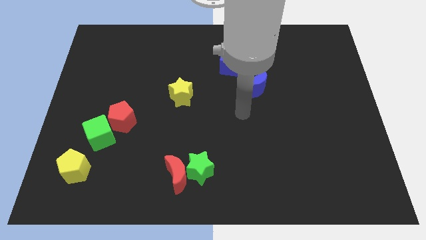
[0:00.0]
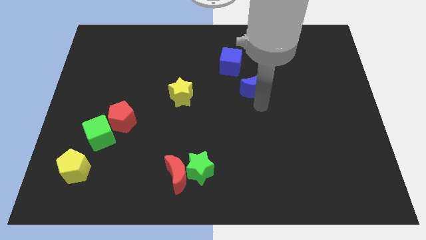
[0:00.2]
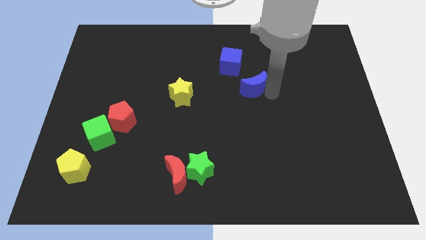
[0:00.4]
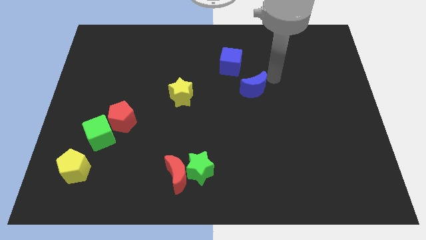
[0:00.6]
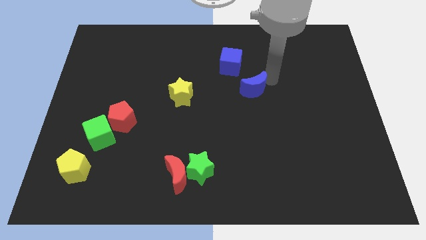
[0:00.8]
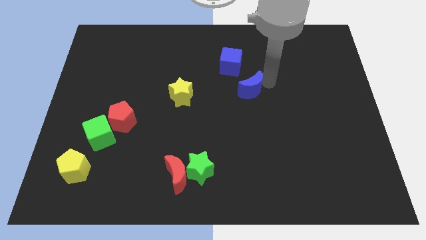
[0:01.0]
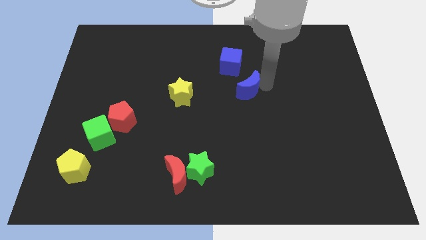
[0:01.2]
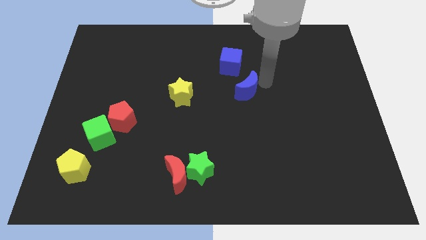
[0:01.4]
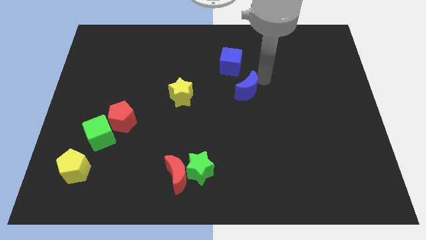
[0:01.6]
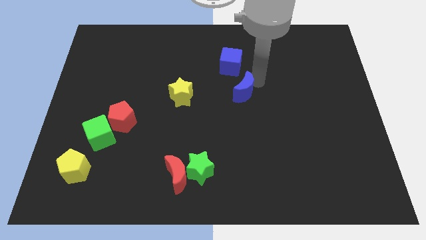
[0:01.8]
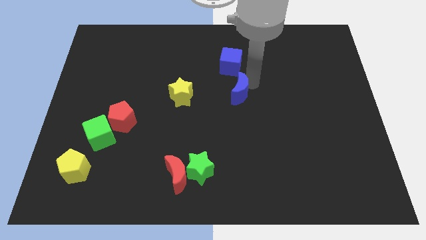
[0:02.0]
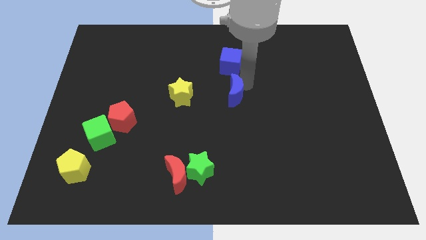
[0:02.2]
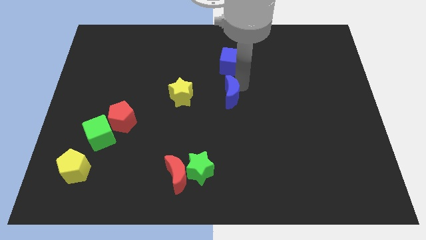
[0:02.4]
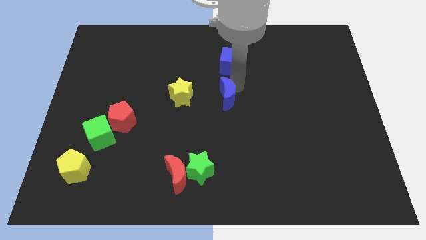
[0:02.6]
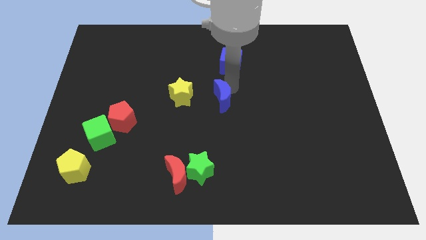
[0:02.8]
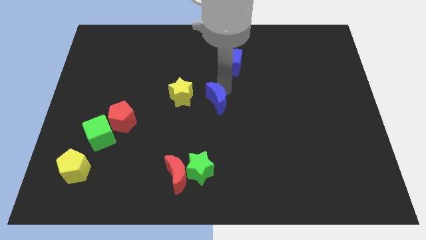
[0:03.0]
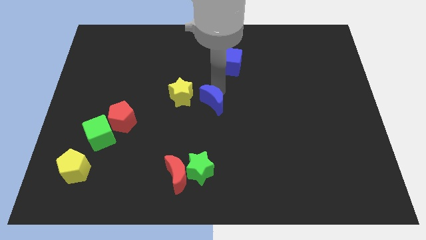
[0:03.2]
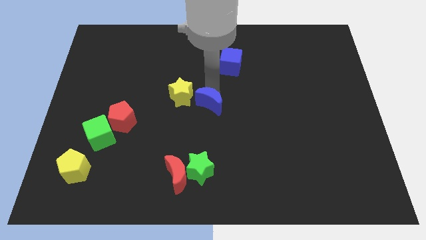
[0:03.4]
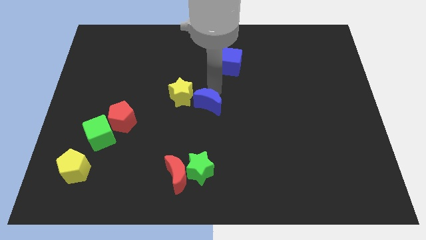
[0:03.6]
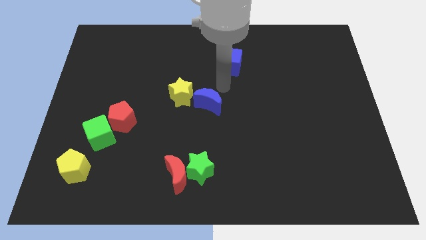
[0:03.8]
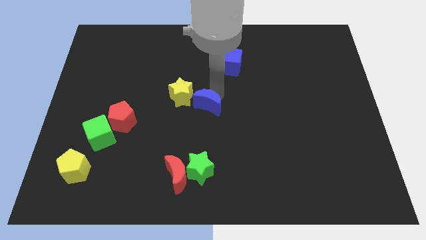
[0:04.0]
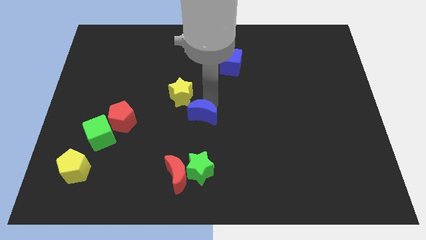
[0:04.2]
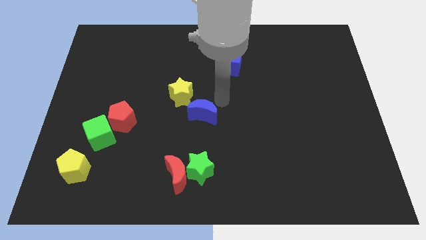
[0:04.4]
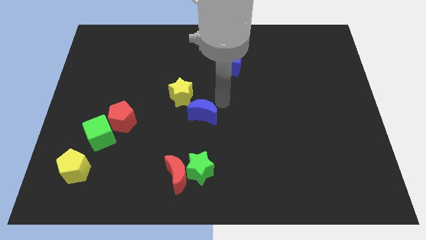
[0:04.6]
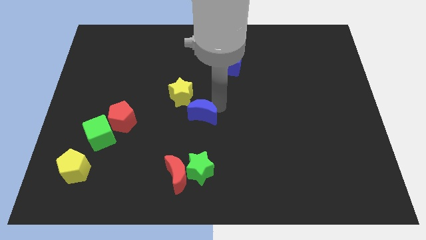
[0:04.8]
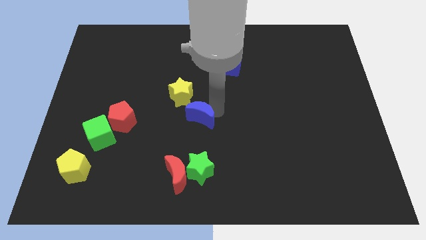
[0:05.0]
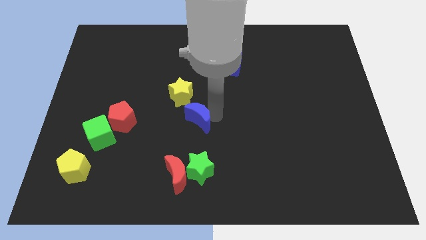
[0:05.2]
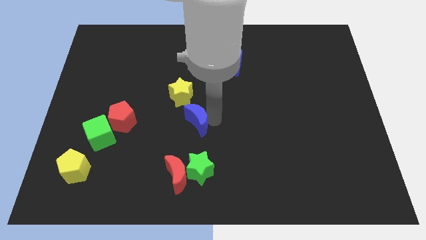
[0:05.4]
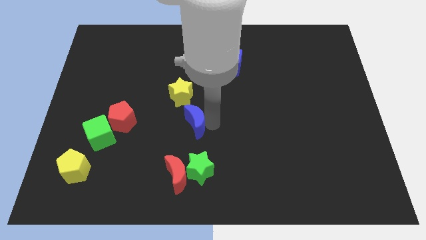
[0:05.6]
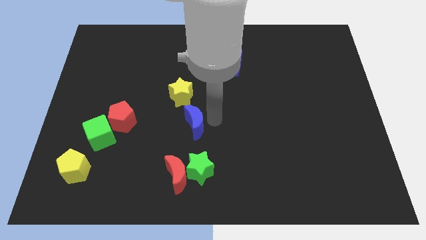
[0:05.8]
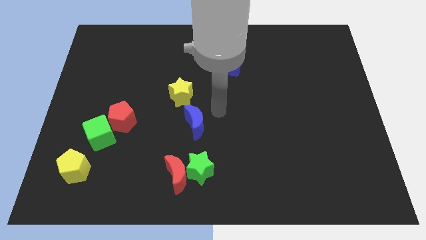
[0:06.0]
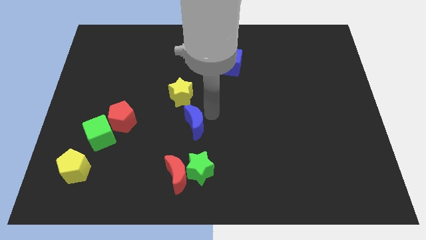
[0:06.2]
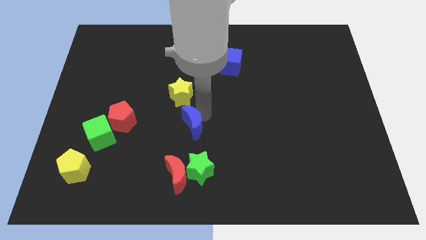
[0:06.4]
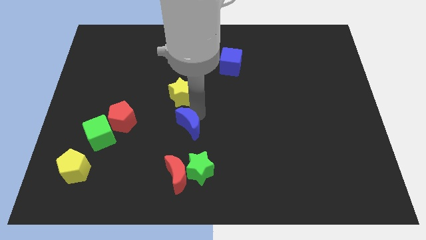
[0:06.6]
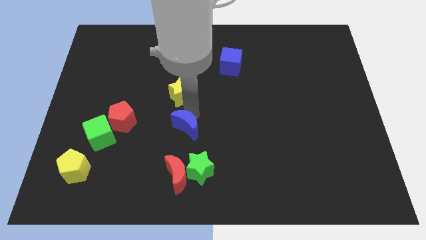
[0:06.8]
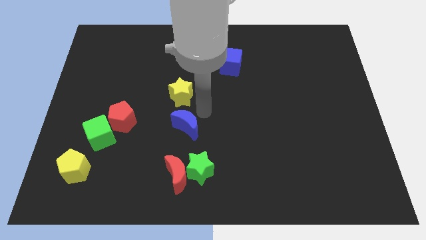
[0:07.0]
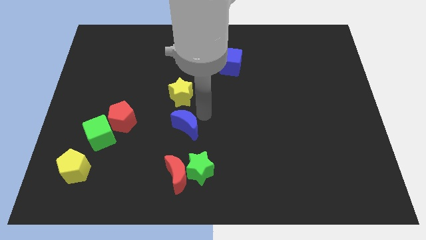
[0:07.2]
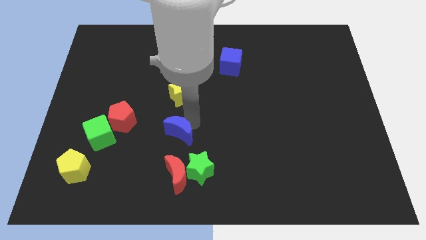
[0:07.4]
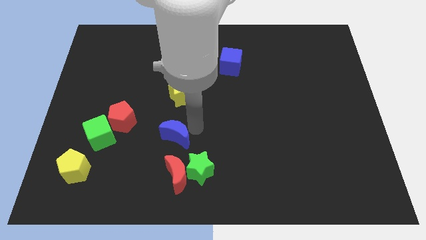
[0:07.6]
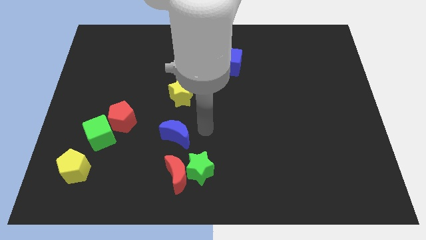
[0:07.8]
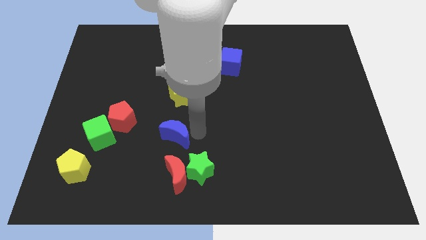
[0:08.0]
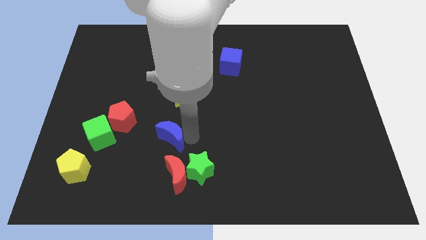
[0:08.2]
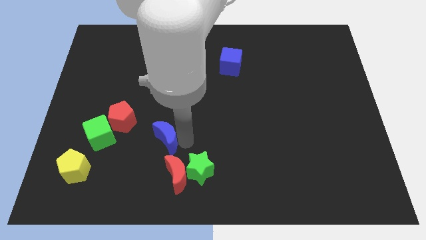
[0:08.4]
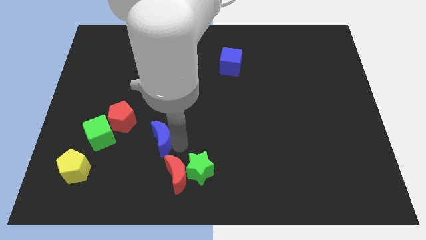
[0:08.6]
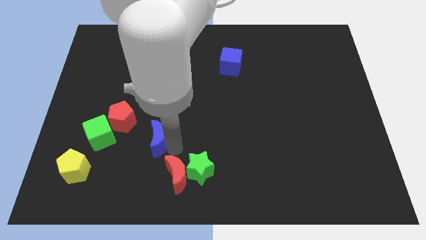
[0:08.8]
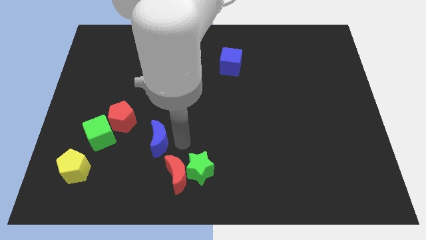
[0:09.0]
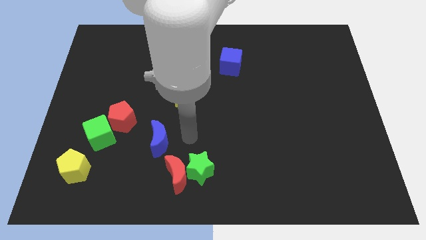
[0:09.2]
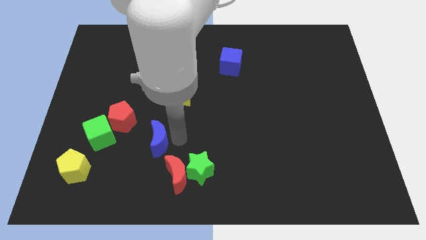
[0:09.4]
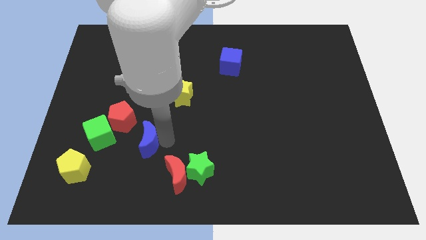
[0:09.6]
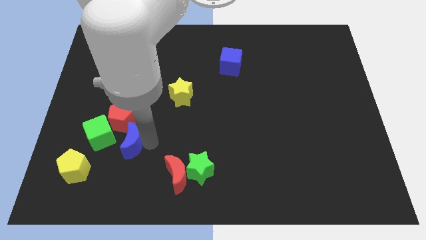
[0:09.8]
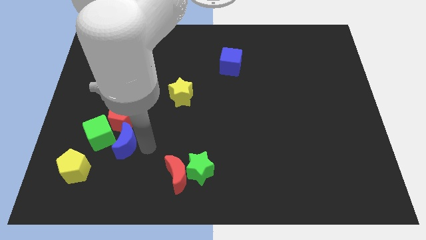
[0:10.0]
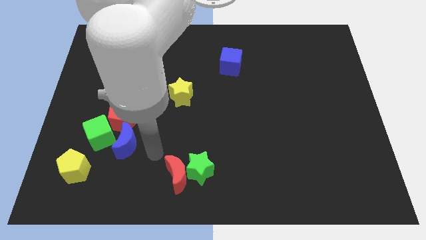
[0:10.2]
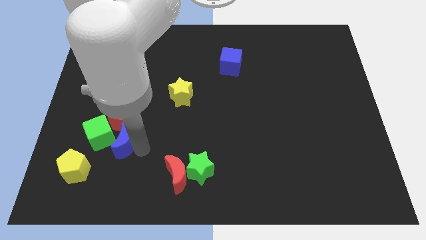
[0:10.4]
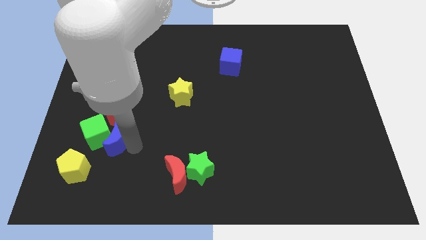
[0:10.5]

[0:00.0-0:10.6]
push the blue moon to the green cube

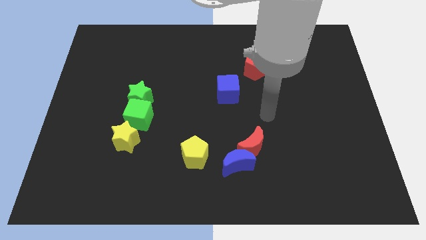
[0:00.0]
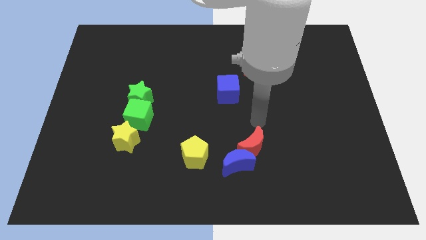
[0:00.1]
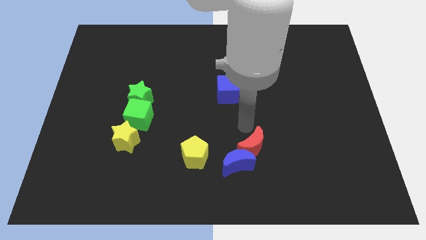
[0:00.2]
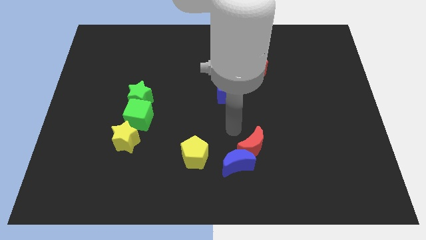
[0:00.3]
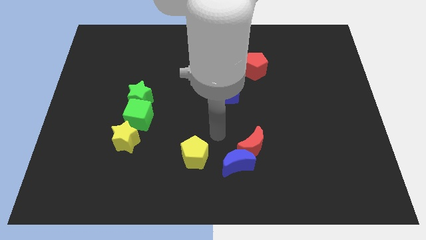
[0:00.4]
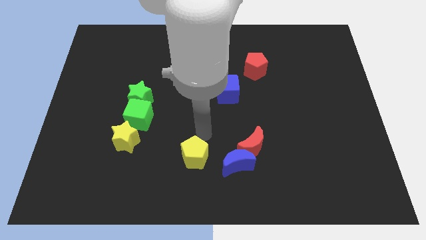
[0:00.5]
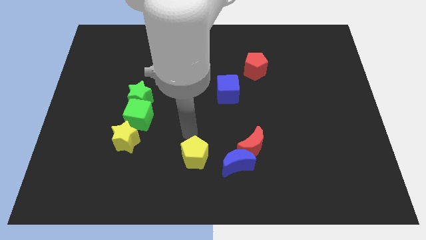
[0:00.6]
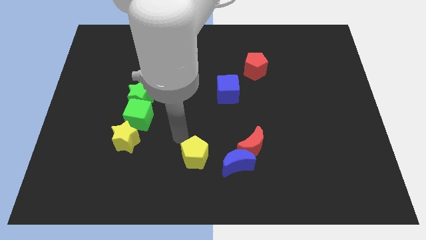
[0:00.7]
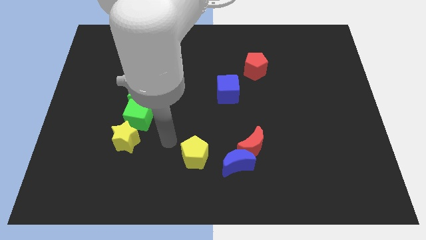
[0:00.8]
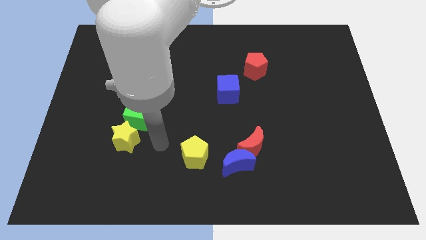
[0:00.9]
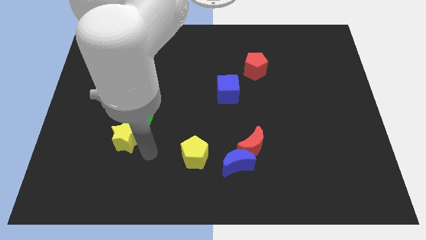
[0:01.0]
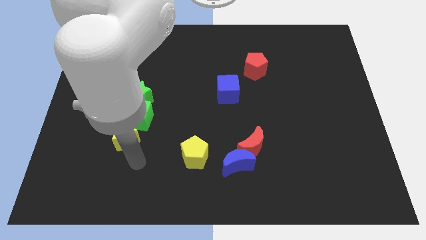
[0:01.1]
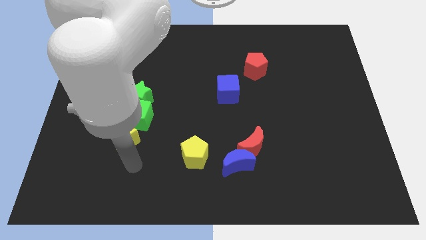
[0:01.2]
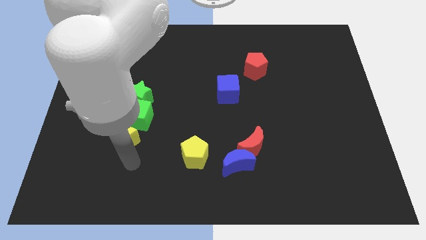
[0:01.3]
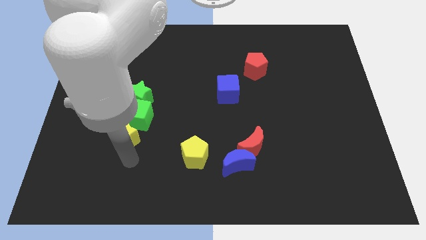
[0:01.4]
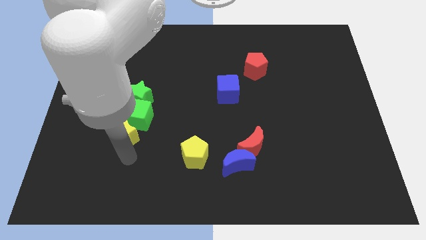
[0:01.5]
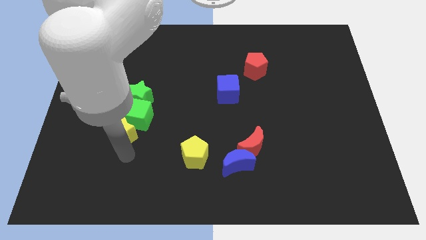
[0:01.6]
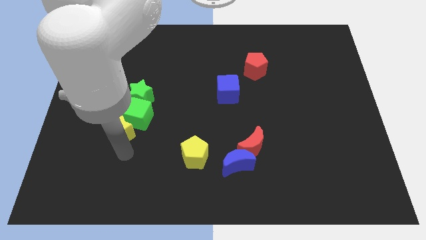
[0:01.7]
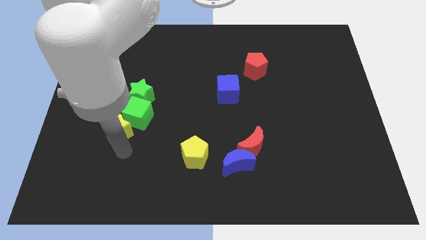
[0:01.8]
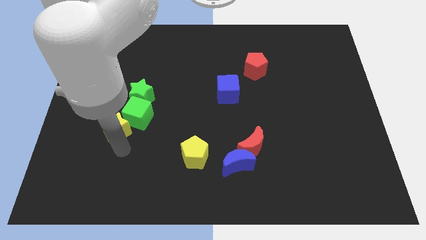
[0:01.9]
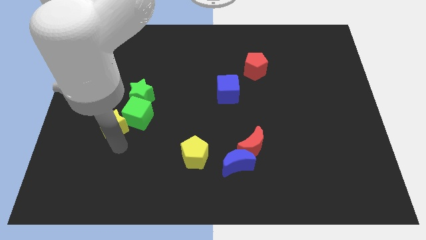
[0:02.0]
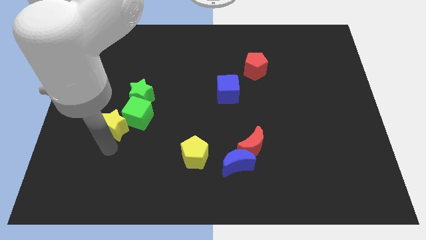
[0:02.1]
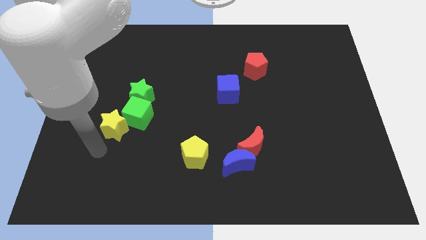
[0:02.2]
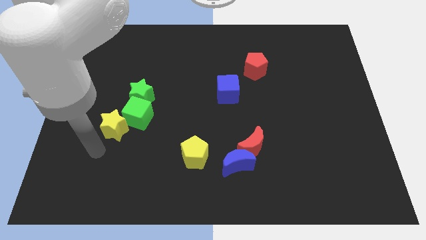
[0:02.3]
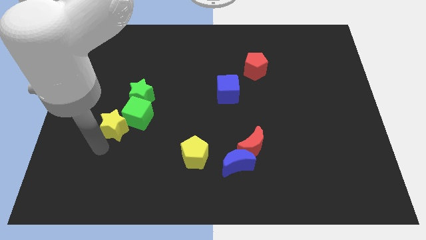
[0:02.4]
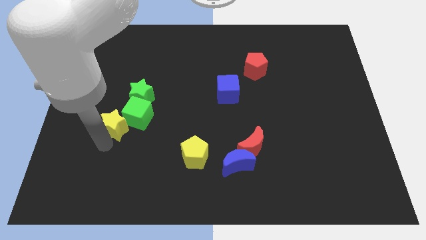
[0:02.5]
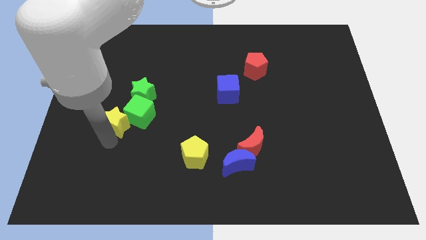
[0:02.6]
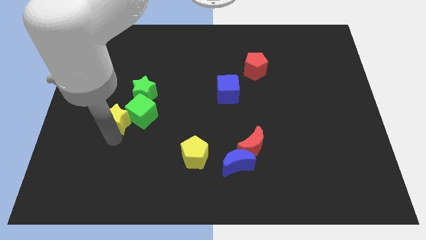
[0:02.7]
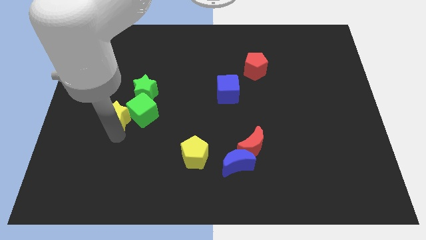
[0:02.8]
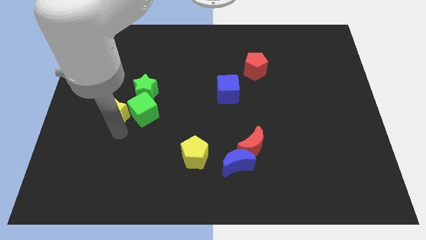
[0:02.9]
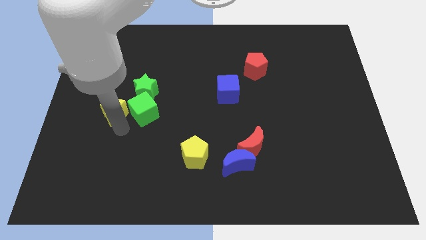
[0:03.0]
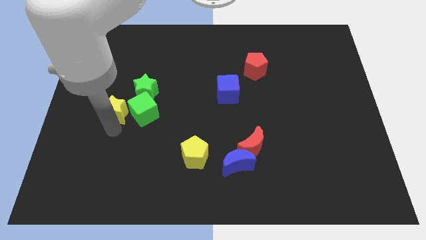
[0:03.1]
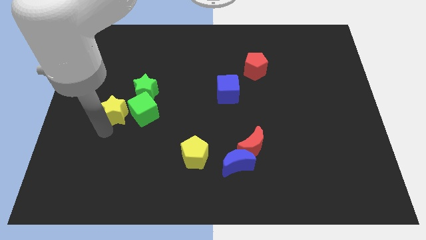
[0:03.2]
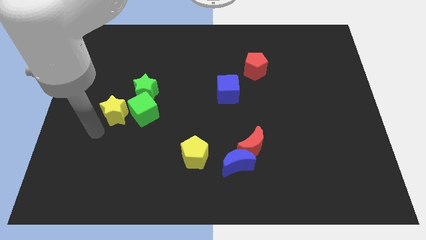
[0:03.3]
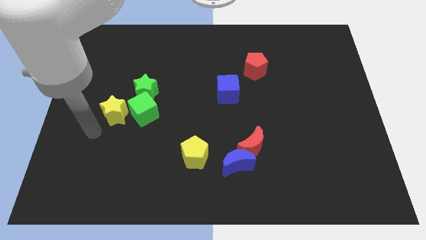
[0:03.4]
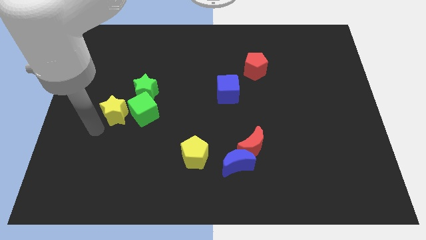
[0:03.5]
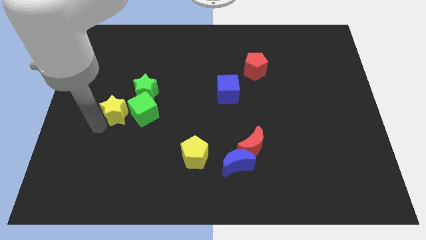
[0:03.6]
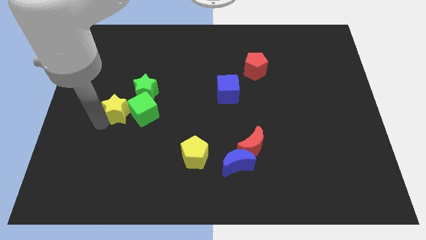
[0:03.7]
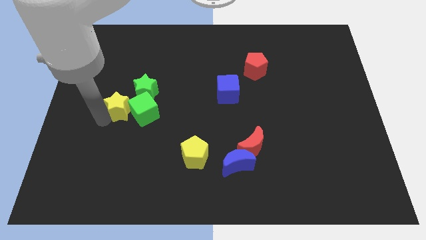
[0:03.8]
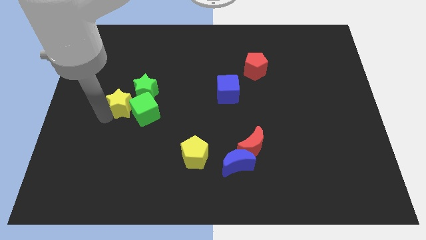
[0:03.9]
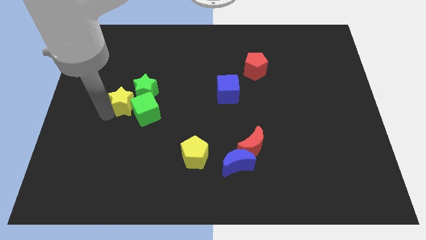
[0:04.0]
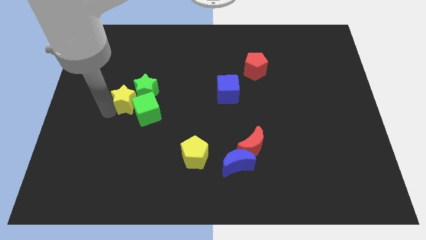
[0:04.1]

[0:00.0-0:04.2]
push the yellow star close to the green star
